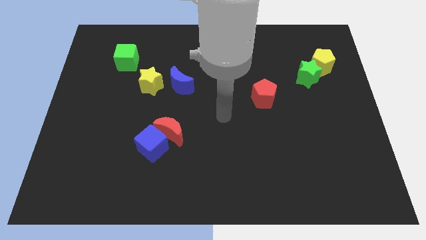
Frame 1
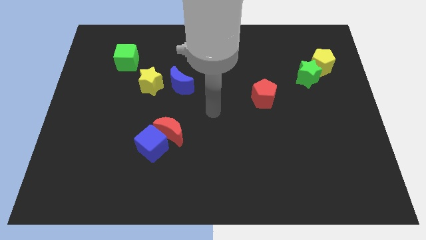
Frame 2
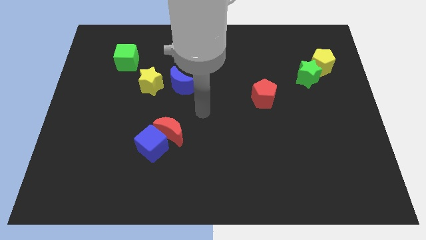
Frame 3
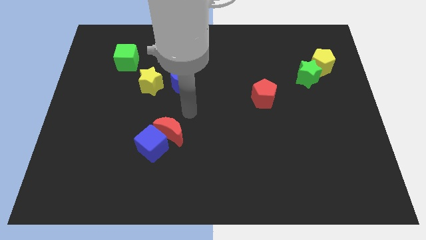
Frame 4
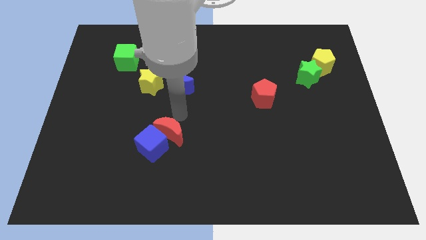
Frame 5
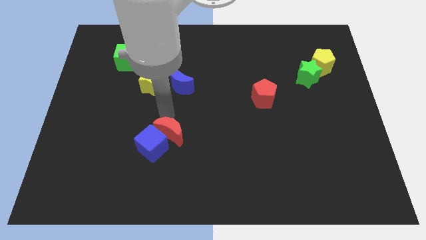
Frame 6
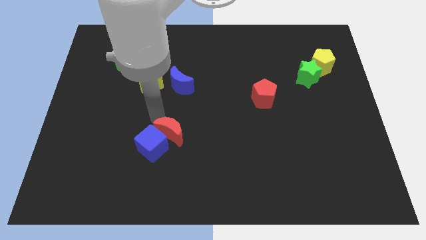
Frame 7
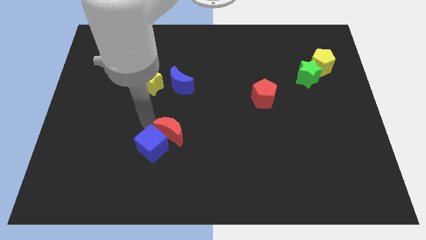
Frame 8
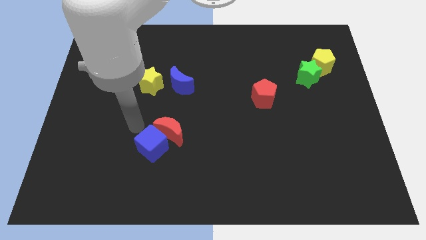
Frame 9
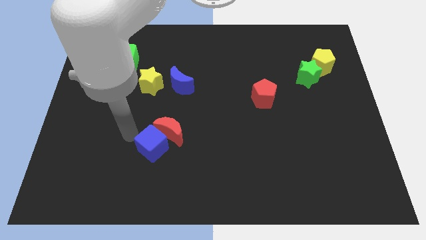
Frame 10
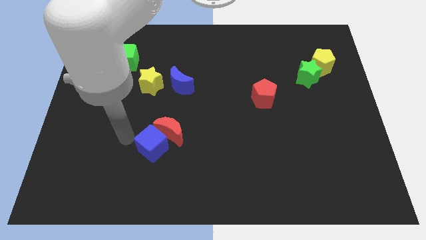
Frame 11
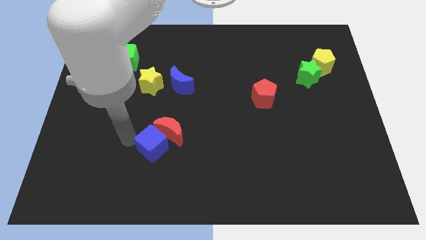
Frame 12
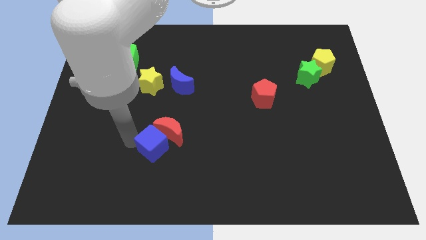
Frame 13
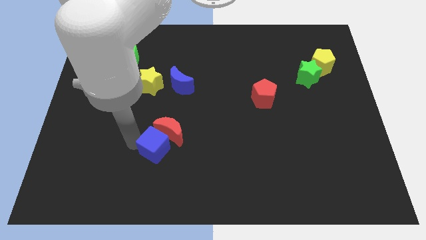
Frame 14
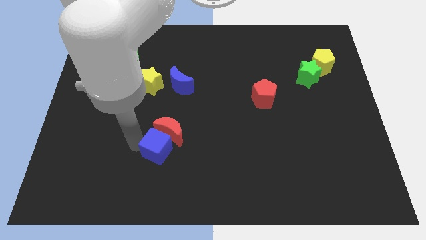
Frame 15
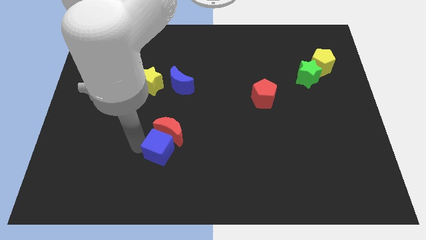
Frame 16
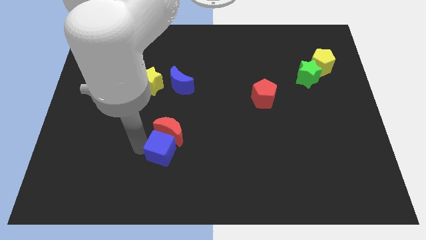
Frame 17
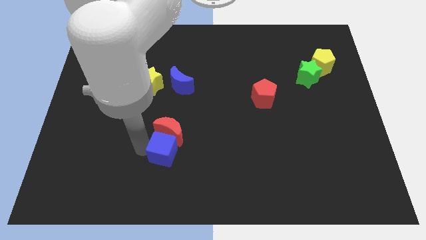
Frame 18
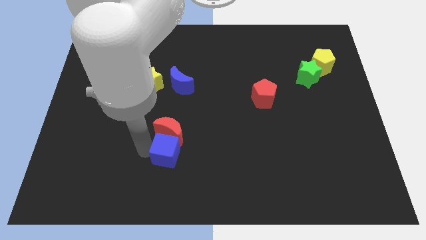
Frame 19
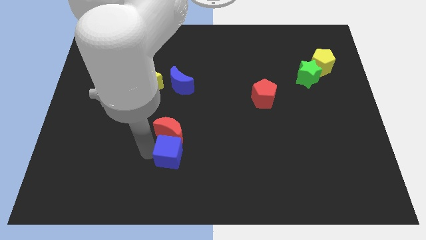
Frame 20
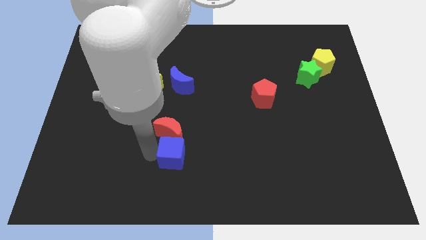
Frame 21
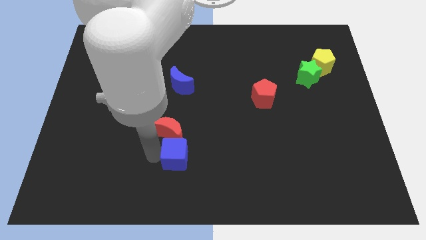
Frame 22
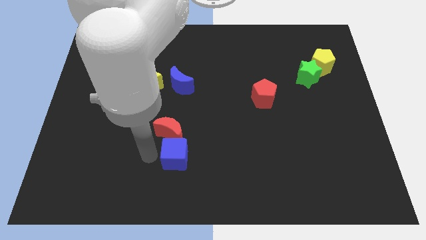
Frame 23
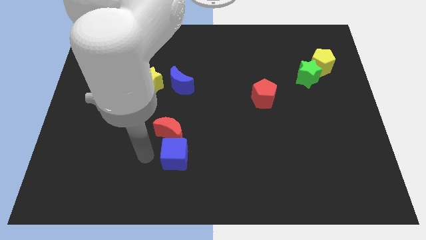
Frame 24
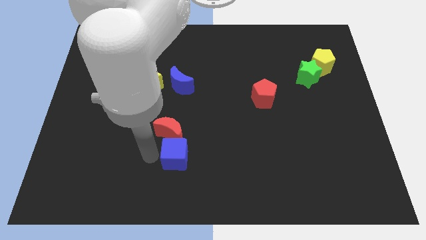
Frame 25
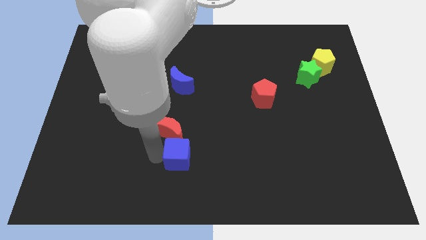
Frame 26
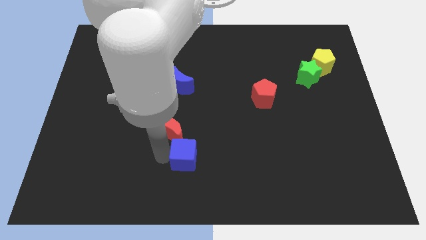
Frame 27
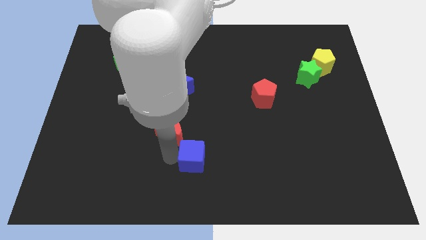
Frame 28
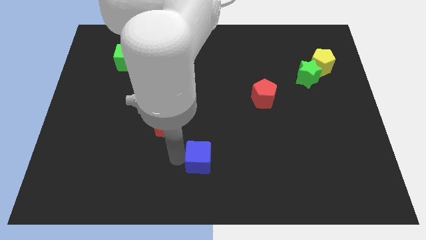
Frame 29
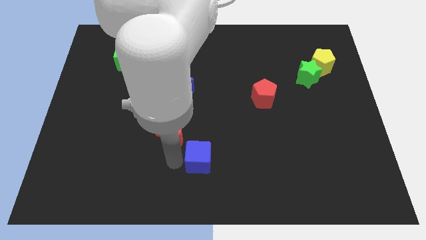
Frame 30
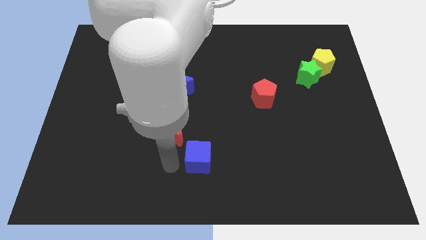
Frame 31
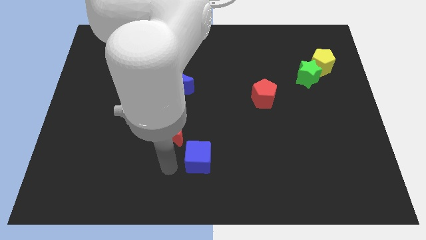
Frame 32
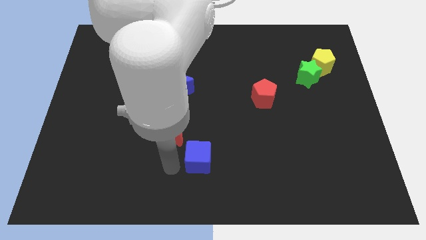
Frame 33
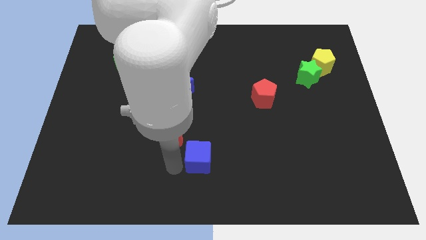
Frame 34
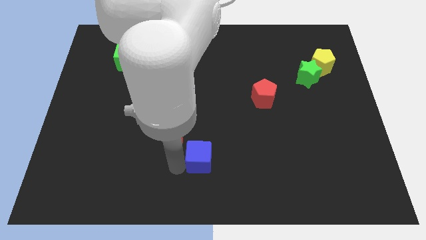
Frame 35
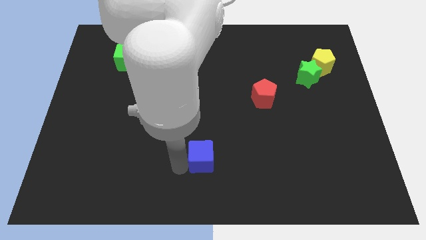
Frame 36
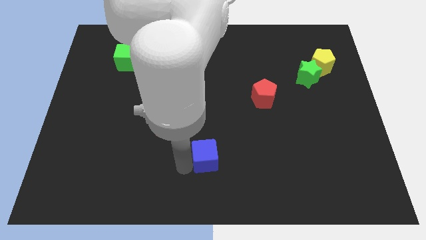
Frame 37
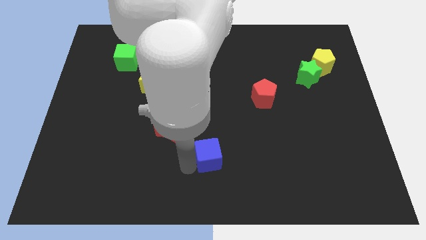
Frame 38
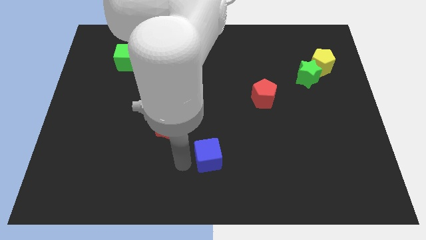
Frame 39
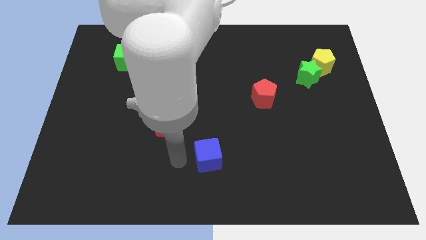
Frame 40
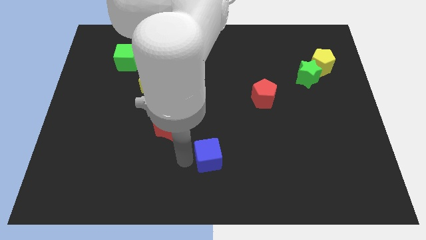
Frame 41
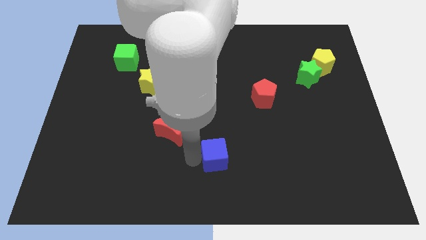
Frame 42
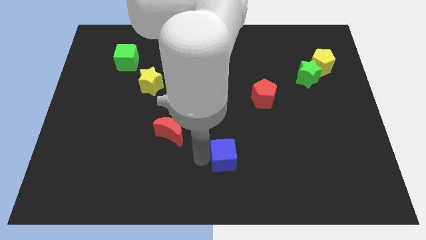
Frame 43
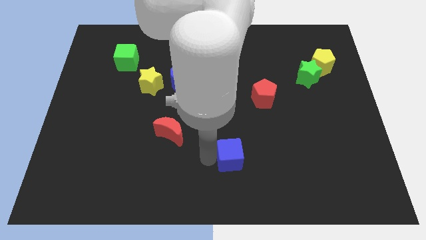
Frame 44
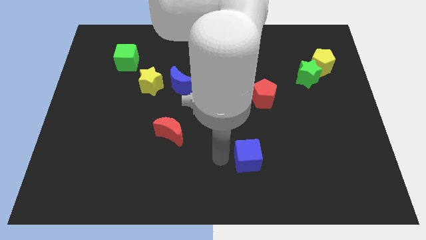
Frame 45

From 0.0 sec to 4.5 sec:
move the blue cube to the right

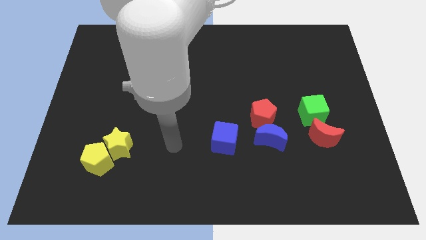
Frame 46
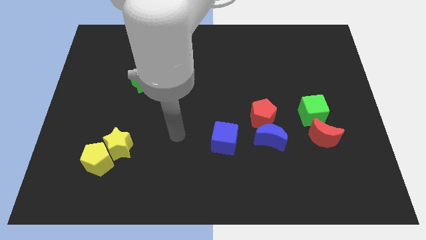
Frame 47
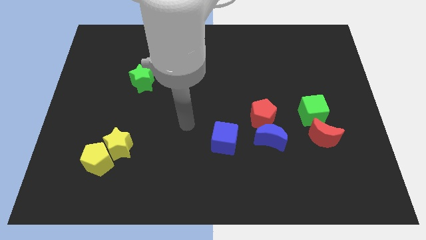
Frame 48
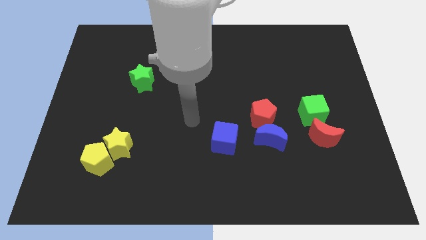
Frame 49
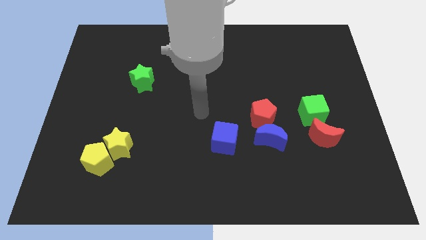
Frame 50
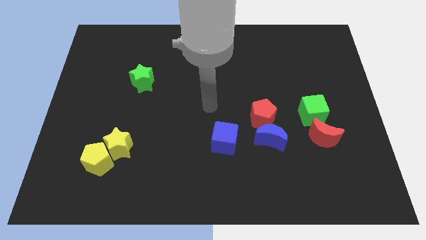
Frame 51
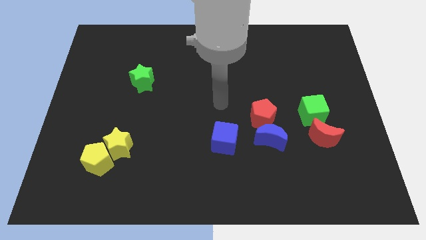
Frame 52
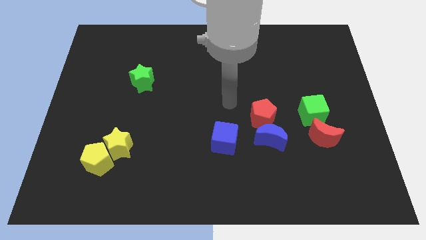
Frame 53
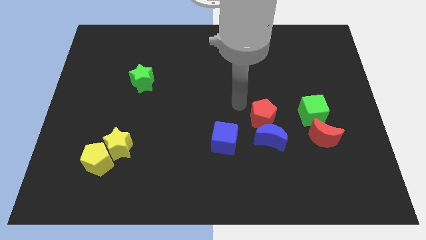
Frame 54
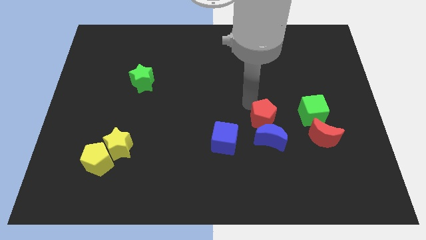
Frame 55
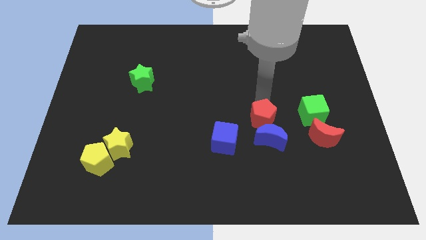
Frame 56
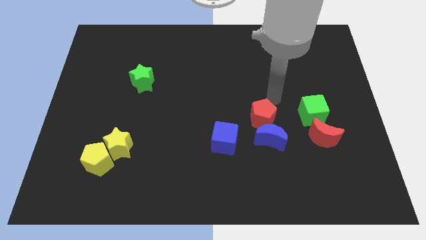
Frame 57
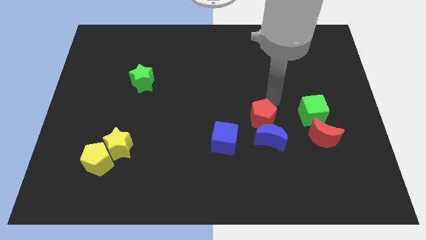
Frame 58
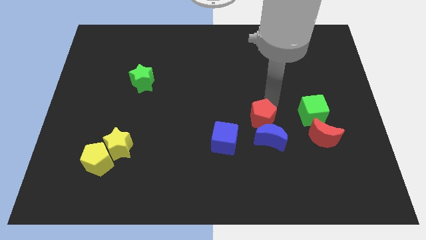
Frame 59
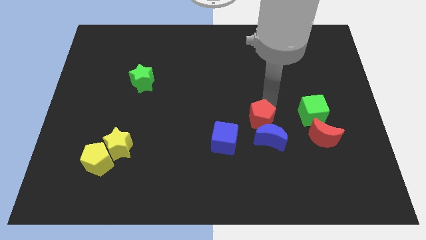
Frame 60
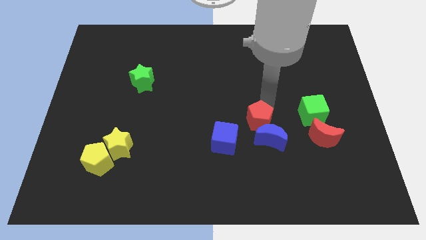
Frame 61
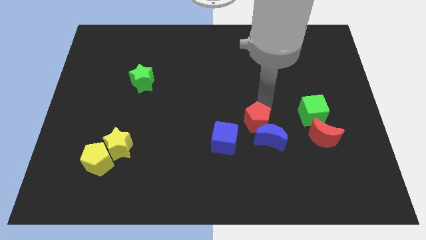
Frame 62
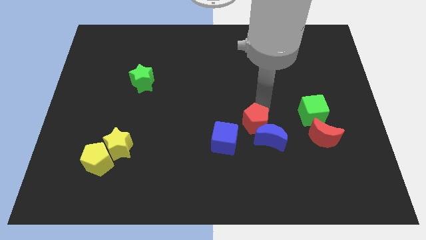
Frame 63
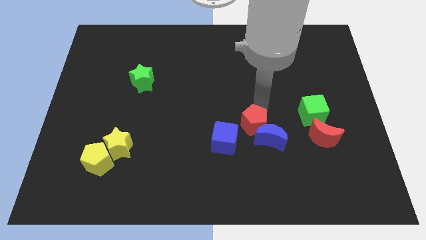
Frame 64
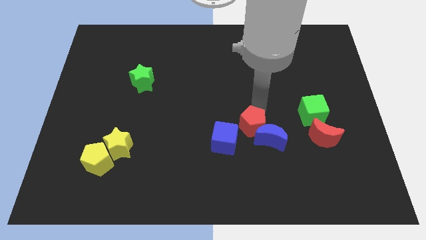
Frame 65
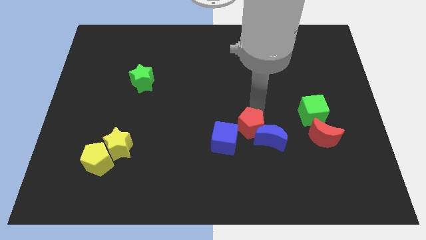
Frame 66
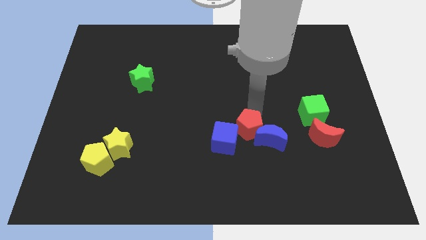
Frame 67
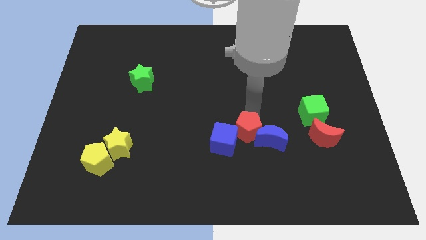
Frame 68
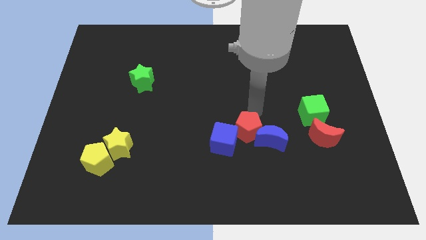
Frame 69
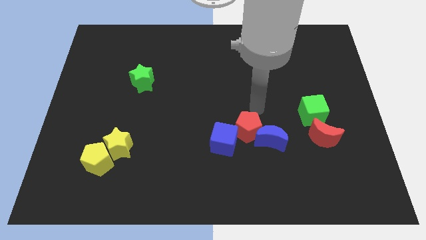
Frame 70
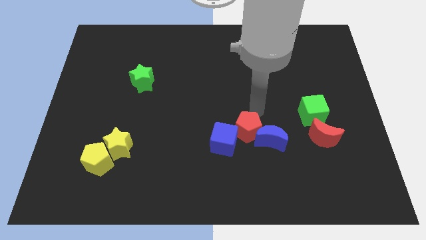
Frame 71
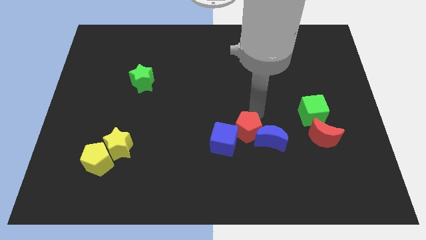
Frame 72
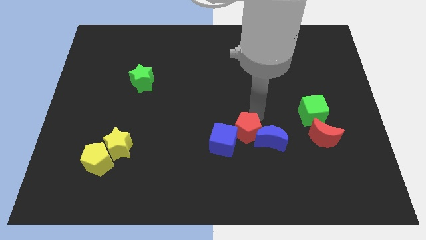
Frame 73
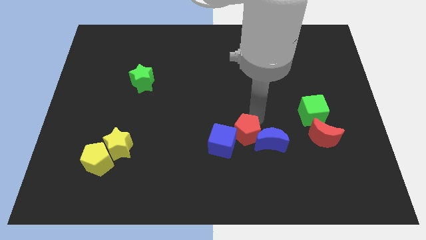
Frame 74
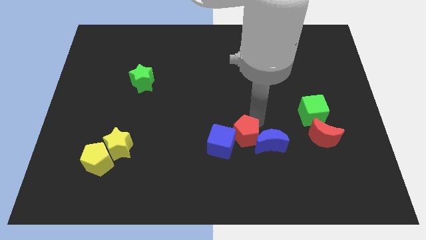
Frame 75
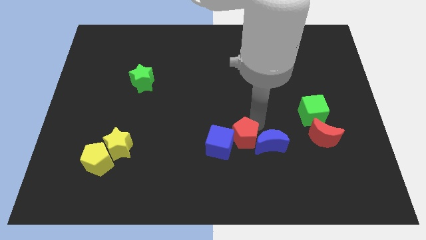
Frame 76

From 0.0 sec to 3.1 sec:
slightly push the red pentagon down and left

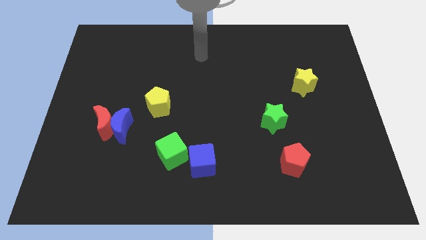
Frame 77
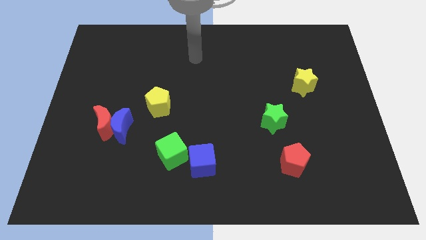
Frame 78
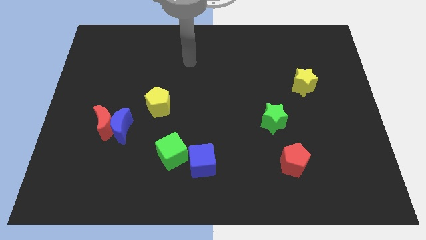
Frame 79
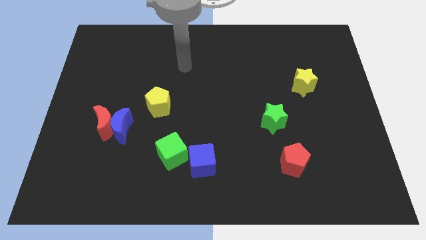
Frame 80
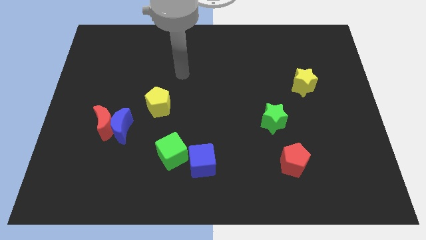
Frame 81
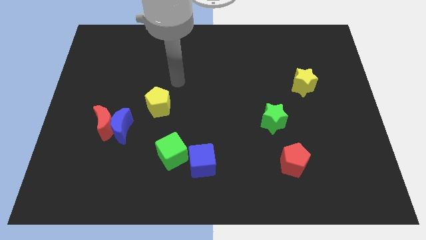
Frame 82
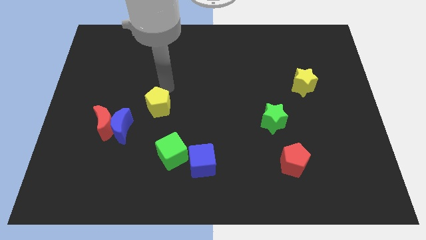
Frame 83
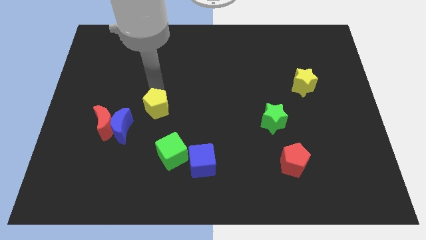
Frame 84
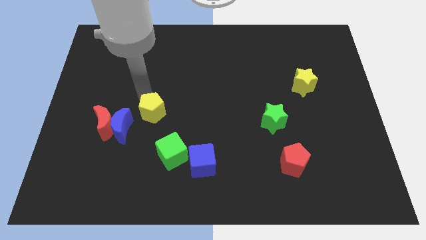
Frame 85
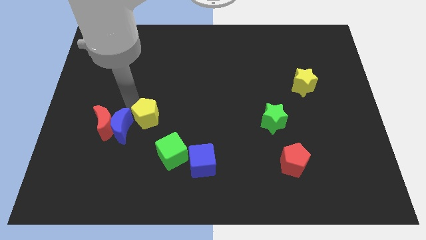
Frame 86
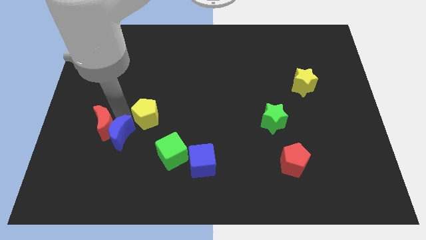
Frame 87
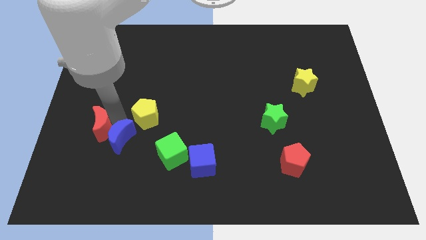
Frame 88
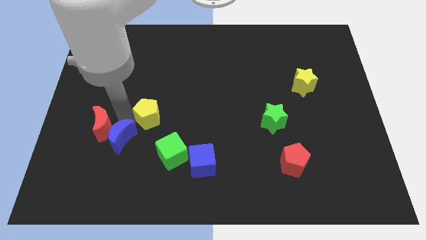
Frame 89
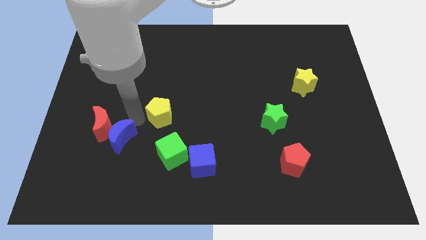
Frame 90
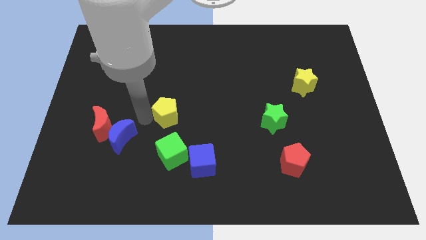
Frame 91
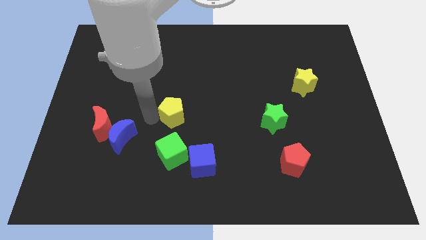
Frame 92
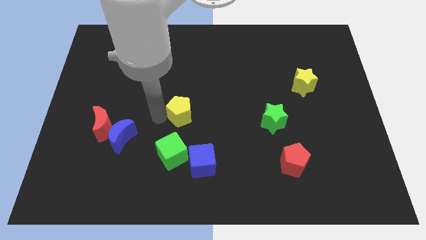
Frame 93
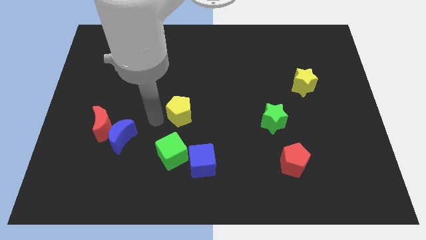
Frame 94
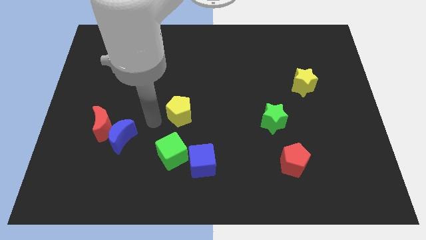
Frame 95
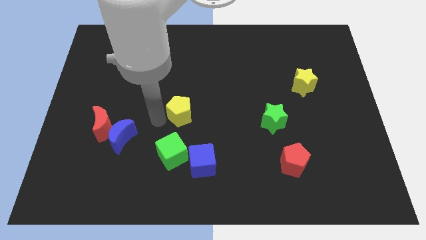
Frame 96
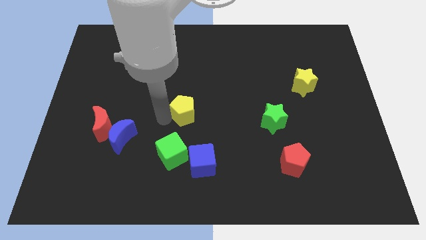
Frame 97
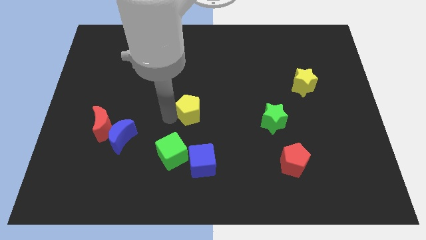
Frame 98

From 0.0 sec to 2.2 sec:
move the yellow pentagon to the right a little bit
